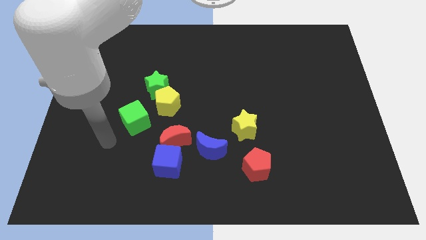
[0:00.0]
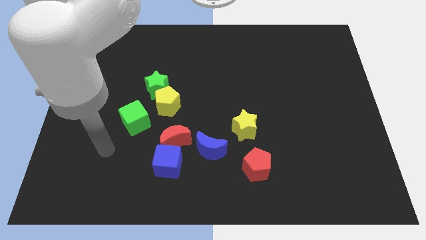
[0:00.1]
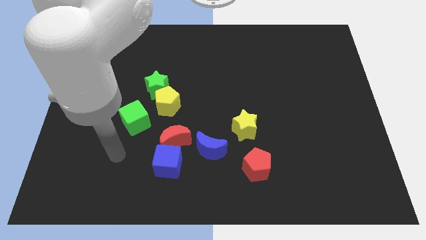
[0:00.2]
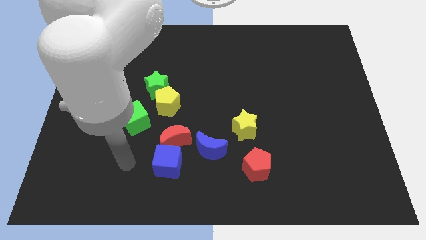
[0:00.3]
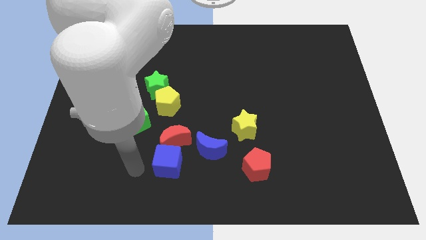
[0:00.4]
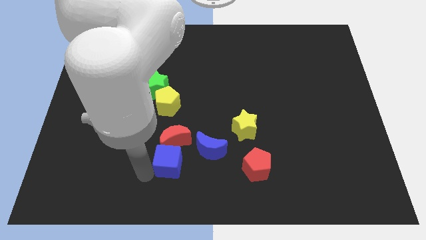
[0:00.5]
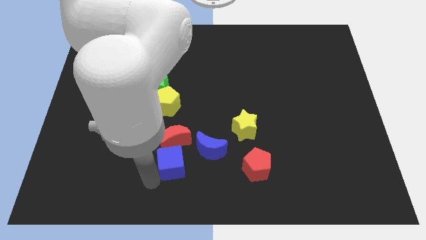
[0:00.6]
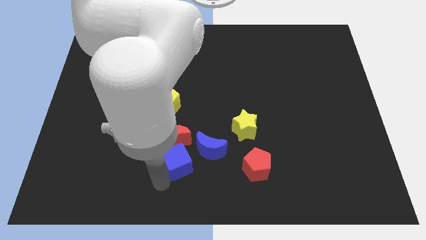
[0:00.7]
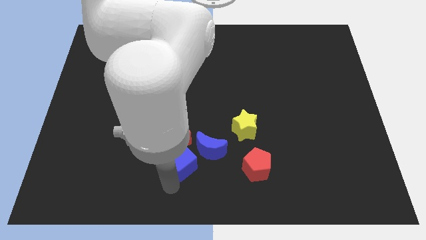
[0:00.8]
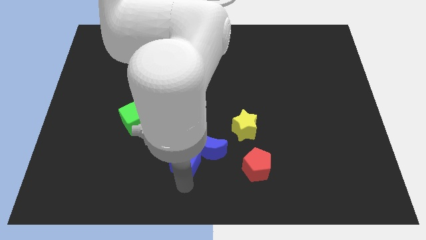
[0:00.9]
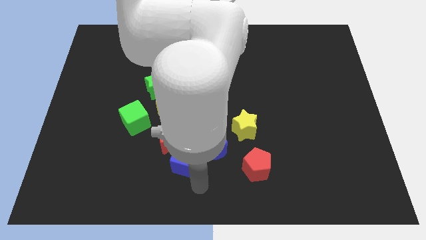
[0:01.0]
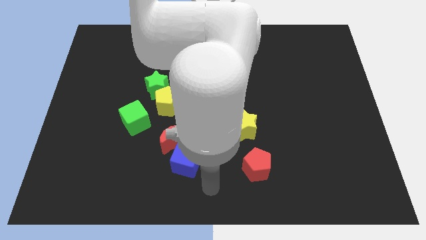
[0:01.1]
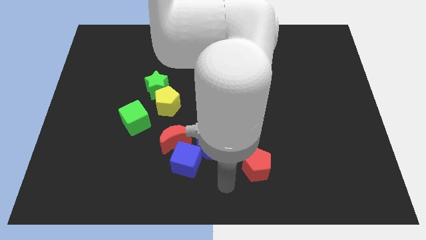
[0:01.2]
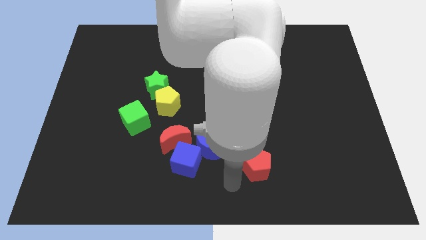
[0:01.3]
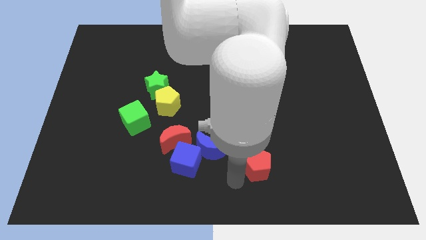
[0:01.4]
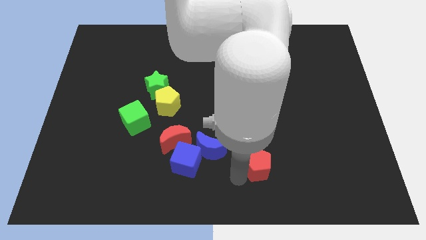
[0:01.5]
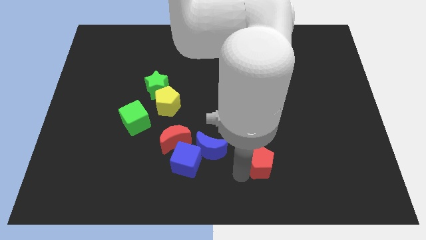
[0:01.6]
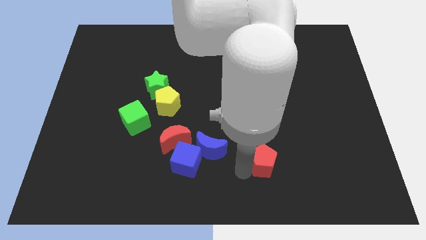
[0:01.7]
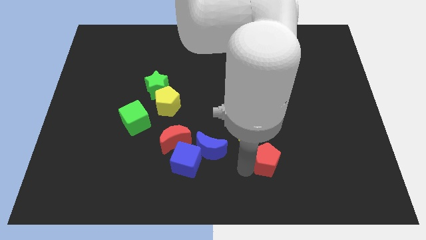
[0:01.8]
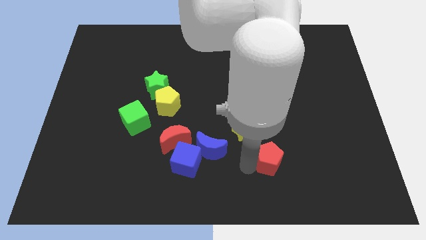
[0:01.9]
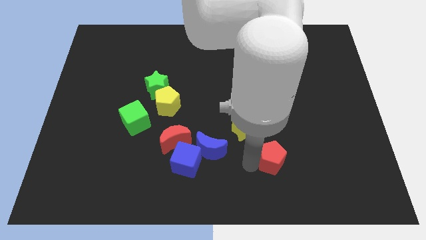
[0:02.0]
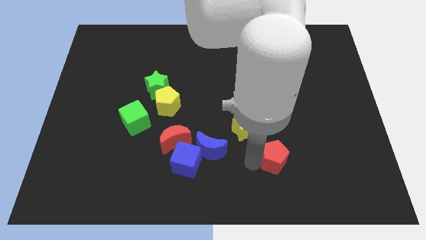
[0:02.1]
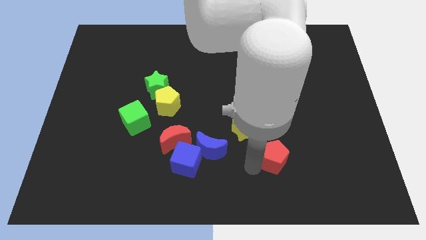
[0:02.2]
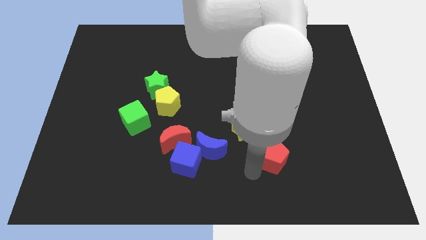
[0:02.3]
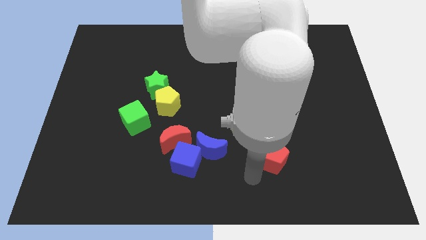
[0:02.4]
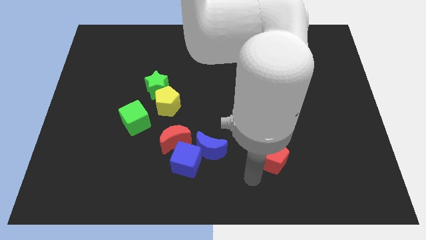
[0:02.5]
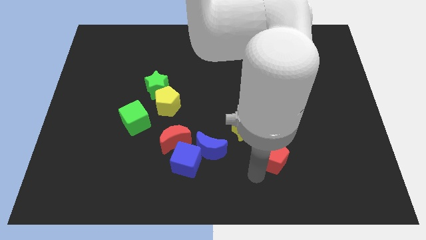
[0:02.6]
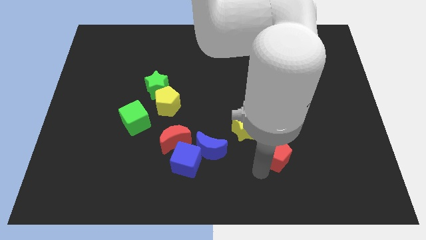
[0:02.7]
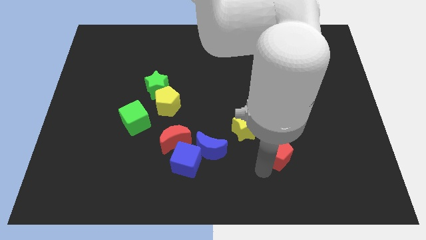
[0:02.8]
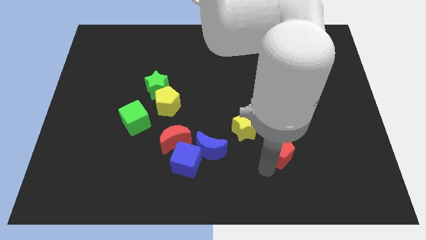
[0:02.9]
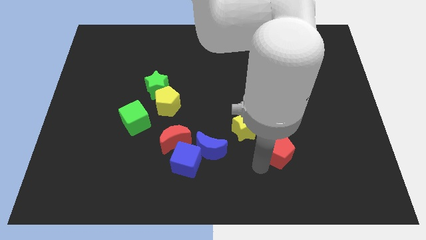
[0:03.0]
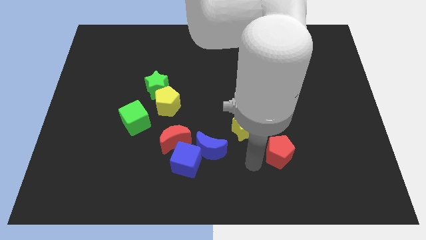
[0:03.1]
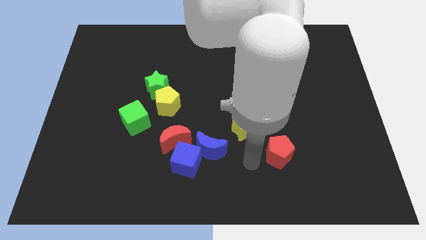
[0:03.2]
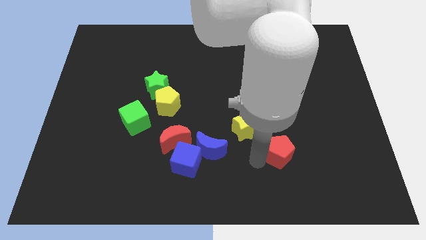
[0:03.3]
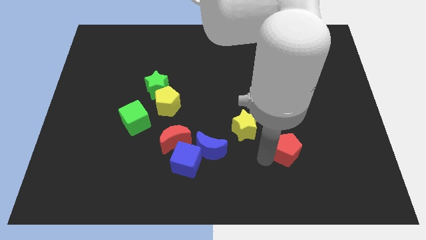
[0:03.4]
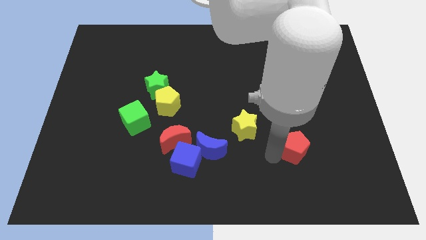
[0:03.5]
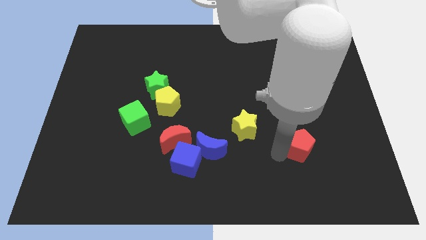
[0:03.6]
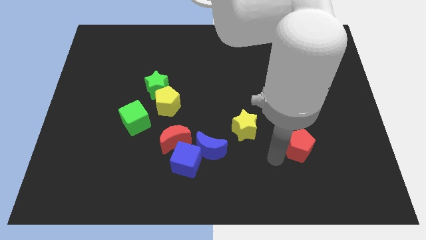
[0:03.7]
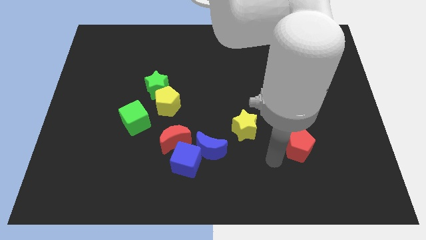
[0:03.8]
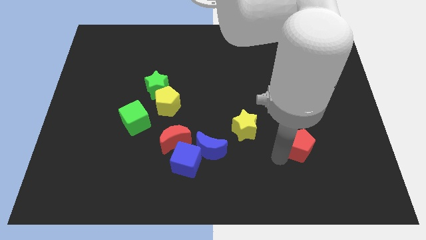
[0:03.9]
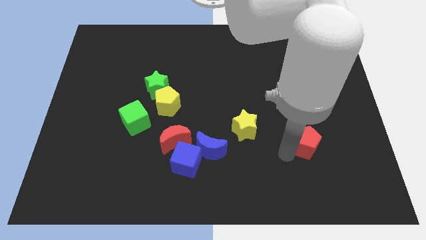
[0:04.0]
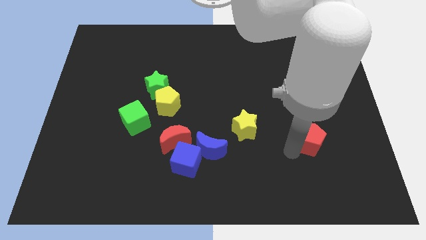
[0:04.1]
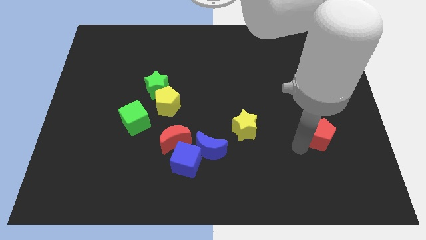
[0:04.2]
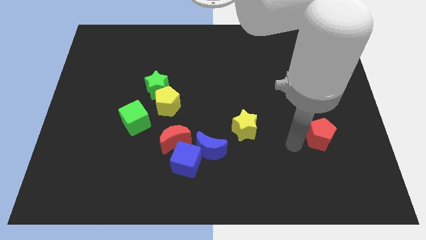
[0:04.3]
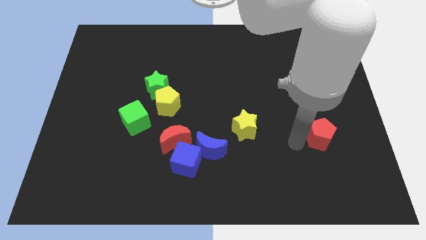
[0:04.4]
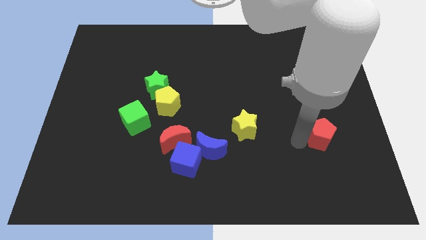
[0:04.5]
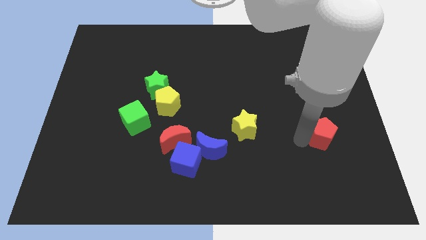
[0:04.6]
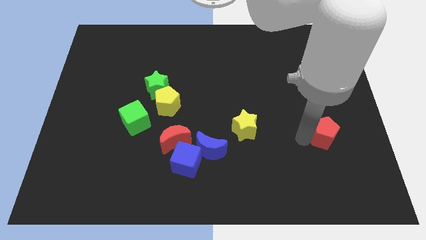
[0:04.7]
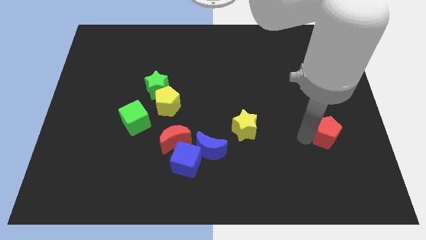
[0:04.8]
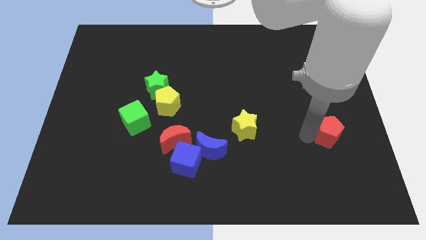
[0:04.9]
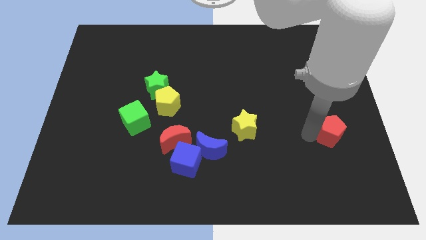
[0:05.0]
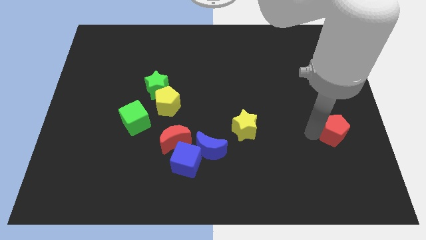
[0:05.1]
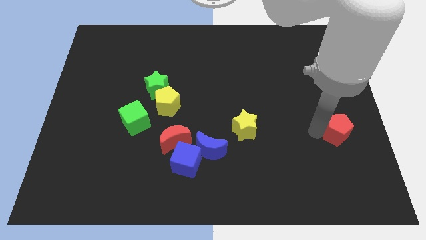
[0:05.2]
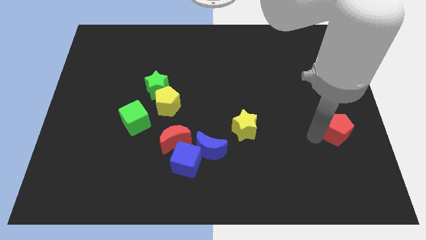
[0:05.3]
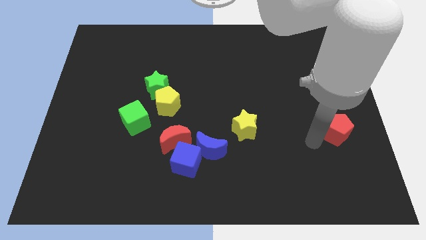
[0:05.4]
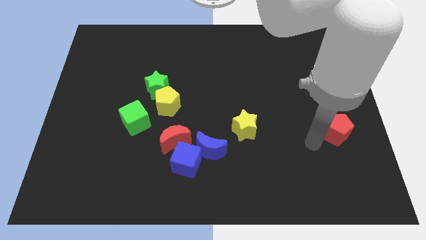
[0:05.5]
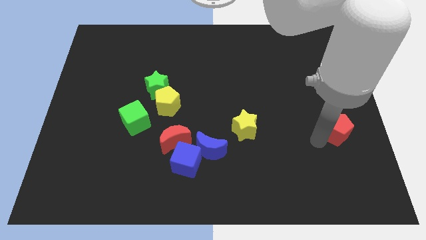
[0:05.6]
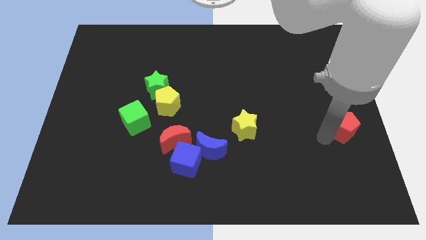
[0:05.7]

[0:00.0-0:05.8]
push the red pentagon to the right side

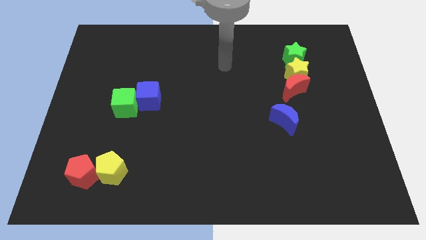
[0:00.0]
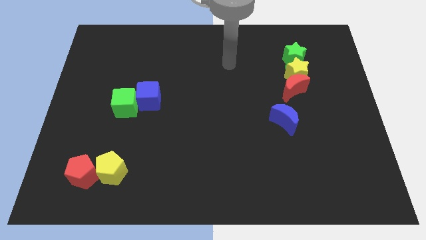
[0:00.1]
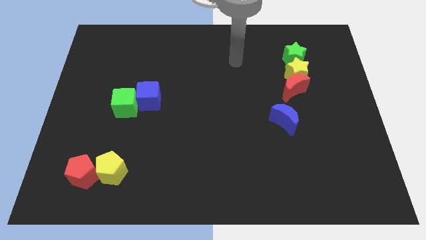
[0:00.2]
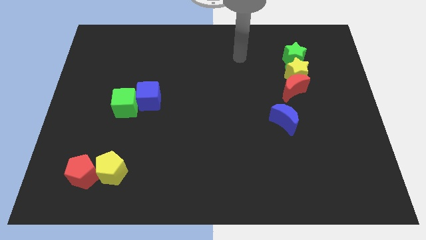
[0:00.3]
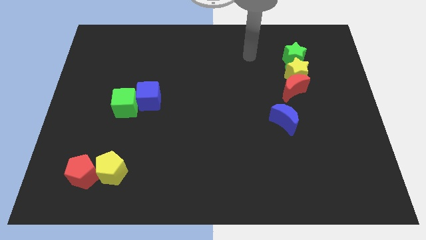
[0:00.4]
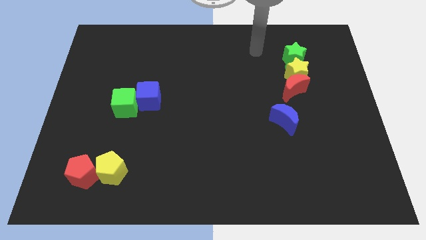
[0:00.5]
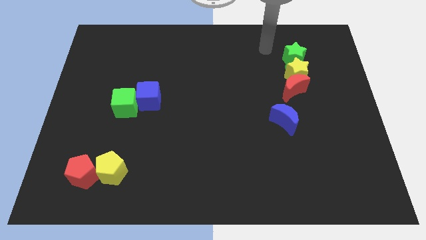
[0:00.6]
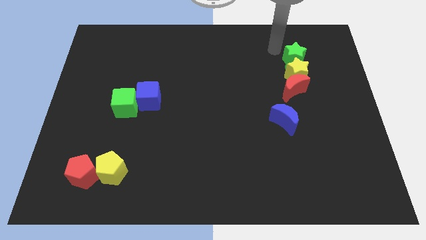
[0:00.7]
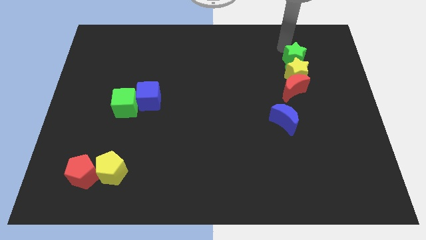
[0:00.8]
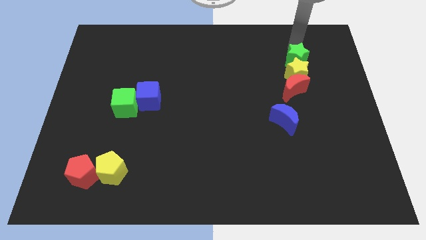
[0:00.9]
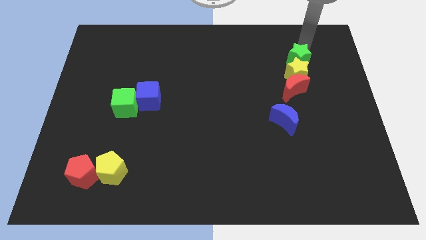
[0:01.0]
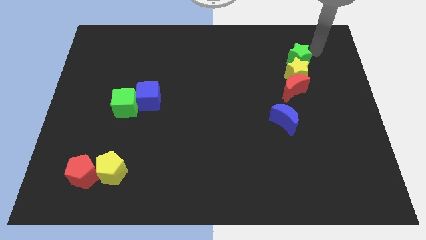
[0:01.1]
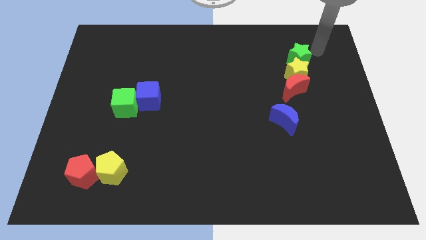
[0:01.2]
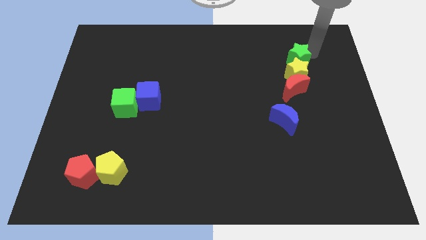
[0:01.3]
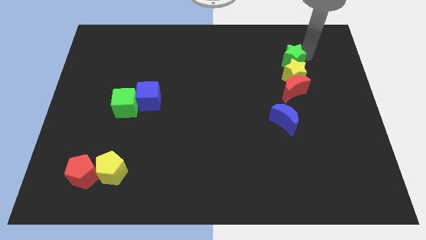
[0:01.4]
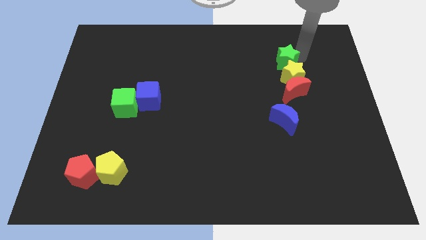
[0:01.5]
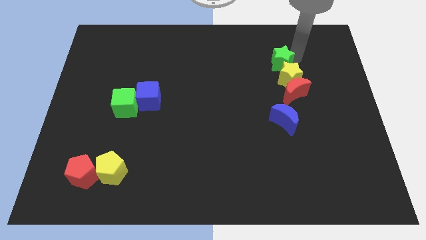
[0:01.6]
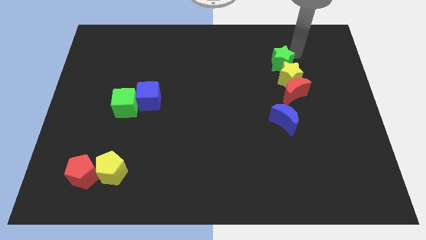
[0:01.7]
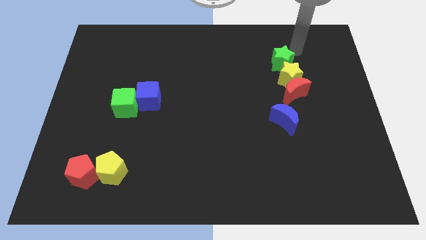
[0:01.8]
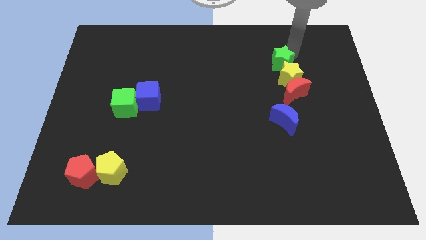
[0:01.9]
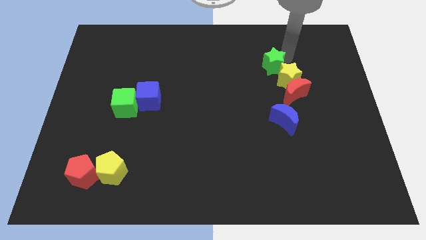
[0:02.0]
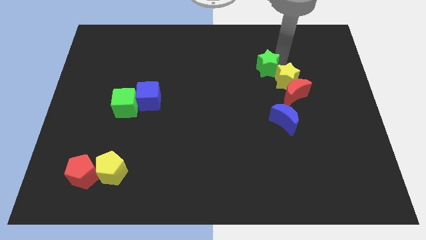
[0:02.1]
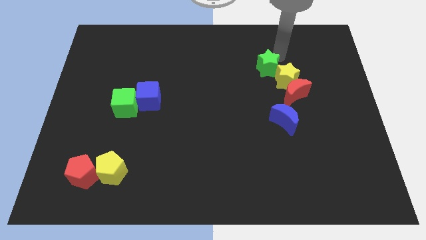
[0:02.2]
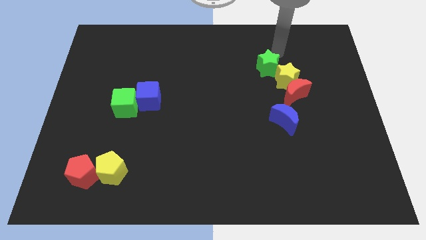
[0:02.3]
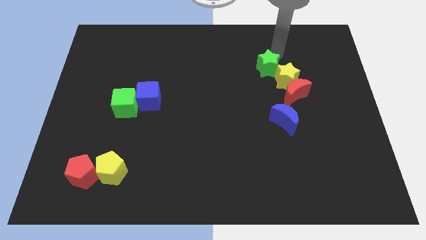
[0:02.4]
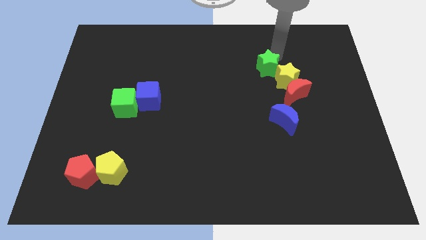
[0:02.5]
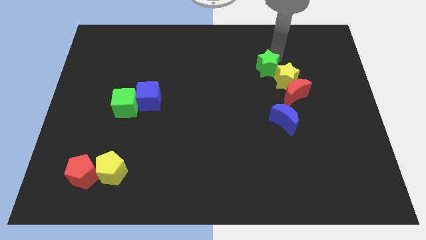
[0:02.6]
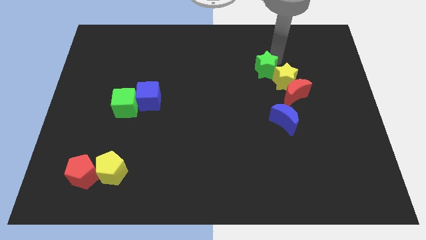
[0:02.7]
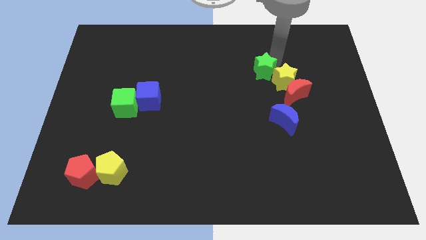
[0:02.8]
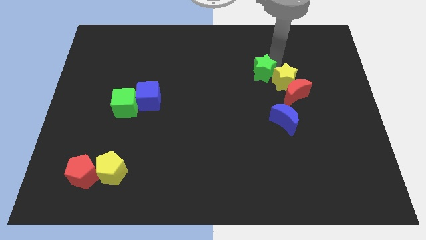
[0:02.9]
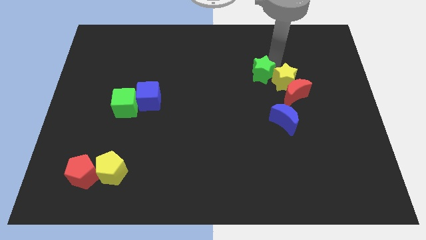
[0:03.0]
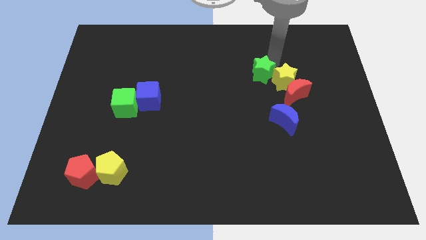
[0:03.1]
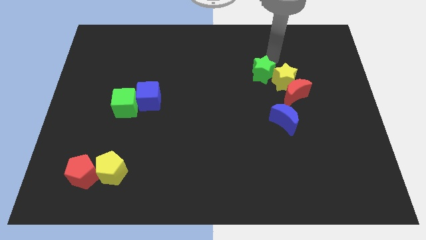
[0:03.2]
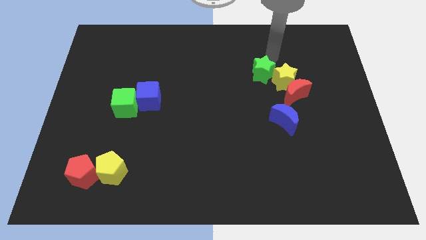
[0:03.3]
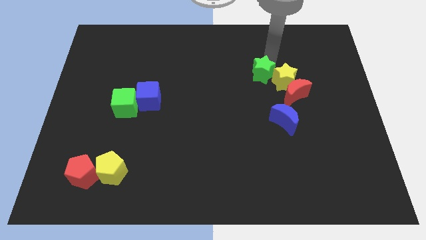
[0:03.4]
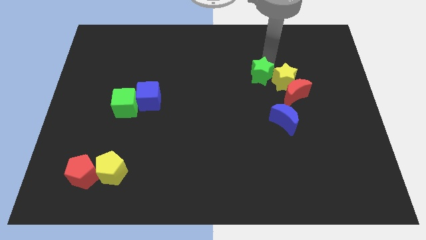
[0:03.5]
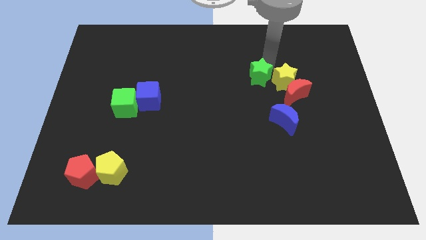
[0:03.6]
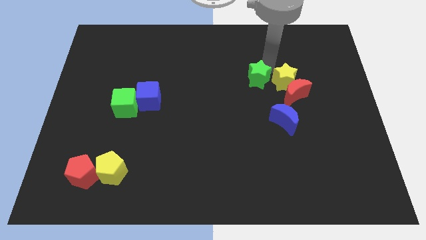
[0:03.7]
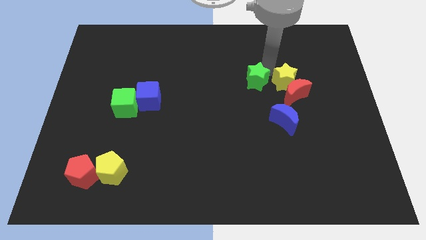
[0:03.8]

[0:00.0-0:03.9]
put the green star to the middle of the board
